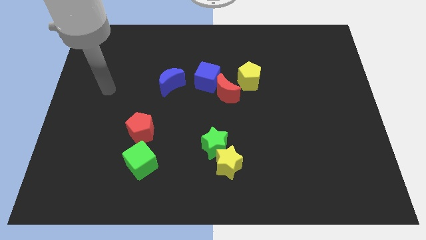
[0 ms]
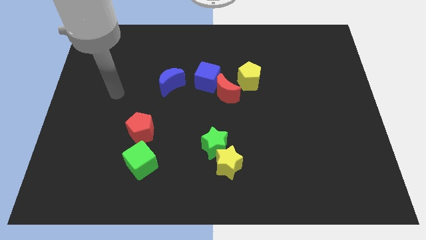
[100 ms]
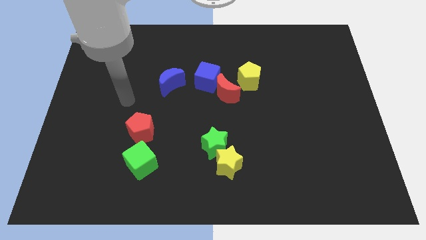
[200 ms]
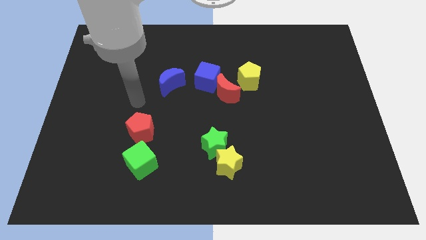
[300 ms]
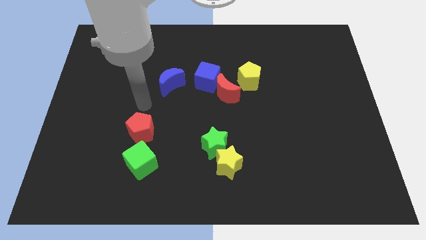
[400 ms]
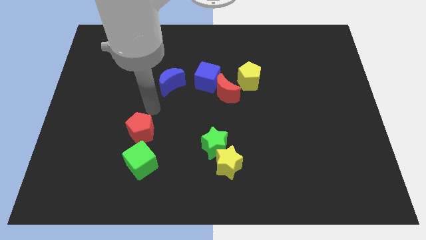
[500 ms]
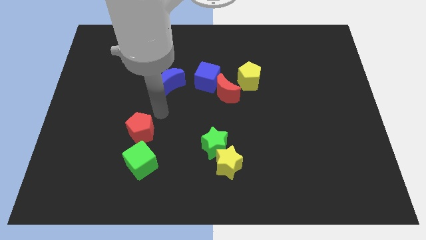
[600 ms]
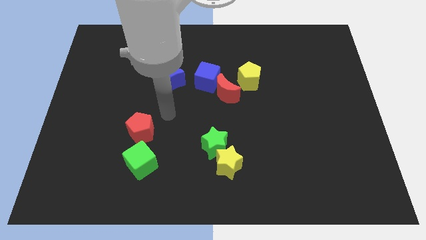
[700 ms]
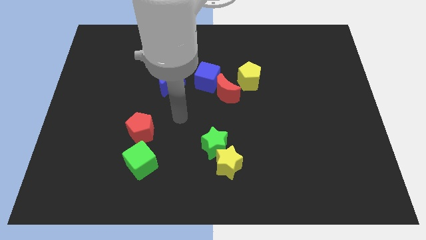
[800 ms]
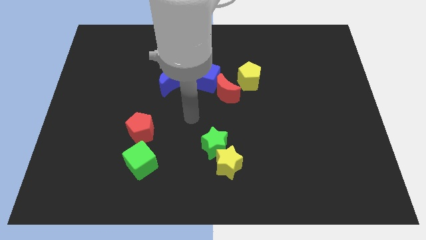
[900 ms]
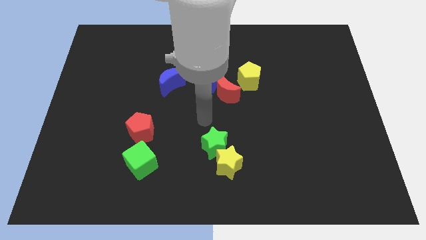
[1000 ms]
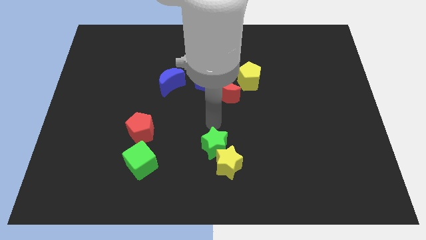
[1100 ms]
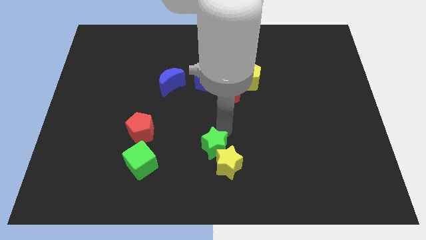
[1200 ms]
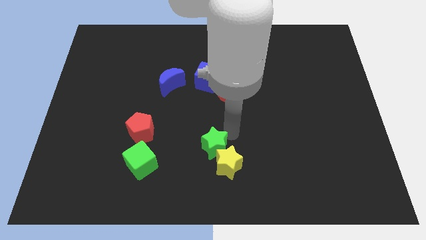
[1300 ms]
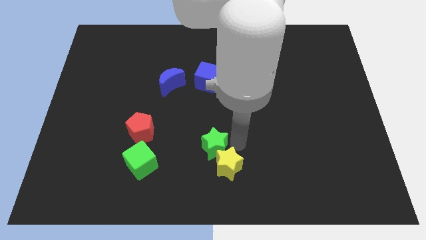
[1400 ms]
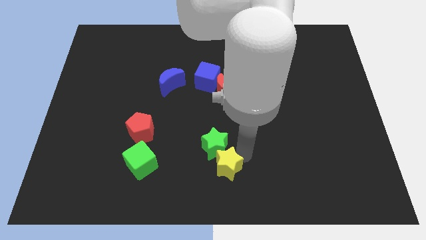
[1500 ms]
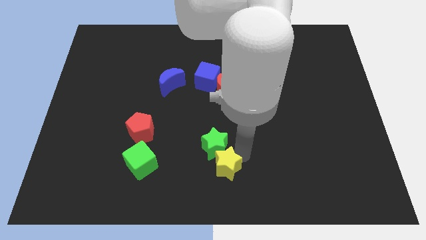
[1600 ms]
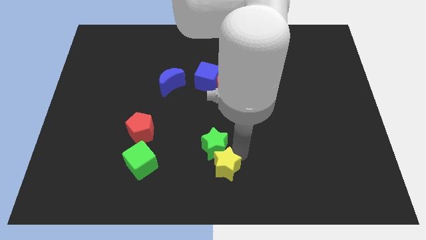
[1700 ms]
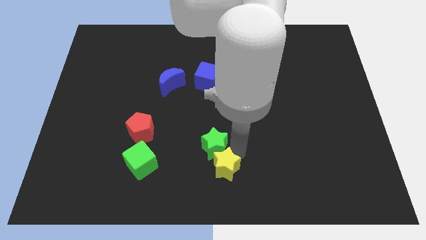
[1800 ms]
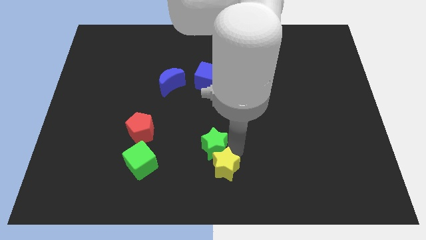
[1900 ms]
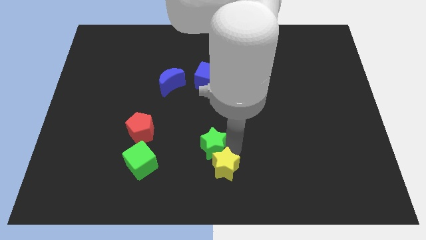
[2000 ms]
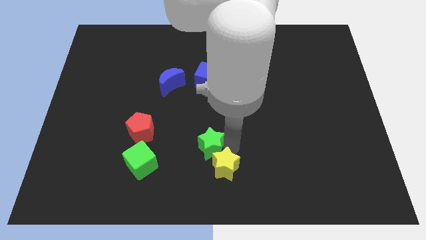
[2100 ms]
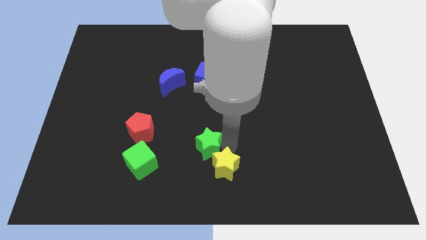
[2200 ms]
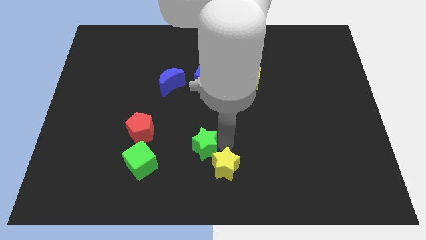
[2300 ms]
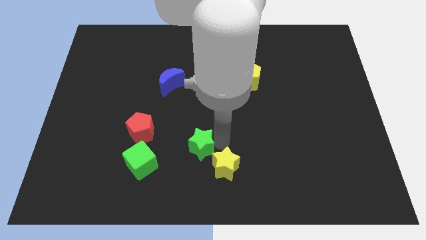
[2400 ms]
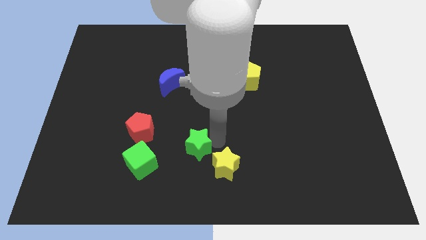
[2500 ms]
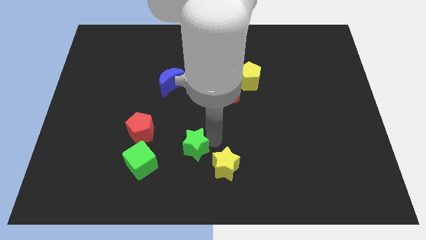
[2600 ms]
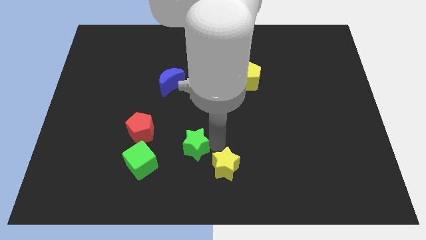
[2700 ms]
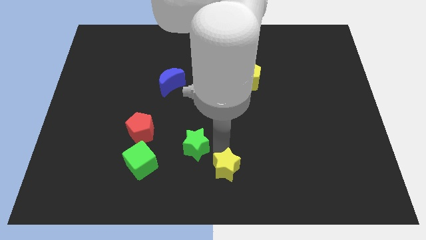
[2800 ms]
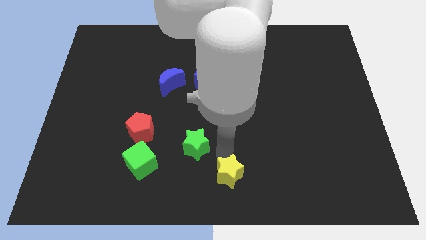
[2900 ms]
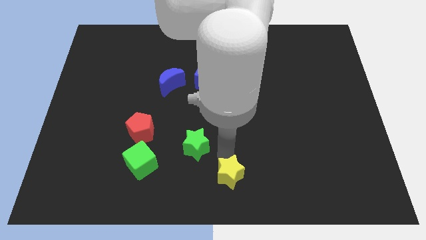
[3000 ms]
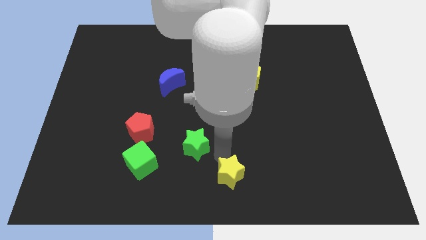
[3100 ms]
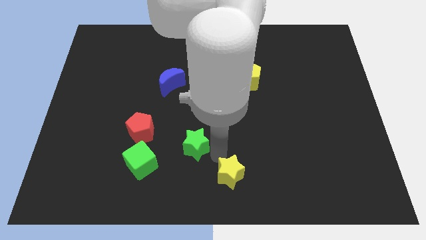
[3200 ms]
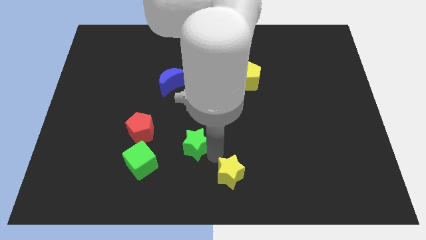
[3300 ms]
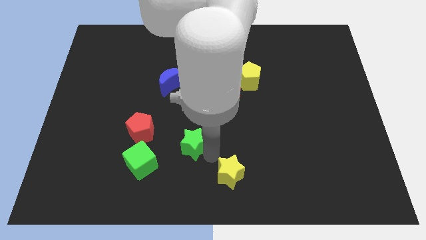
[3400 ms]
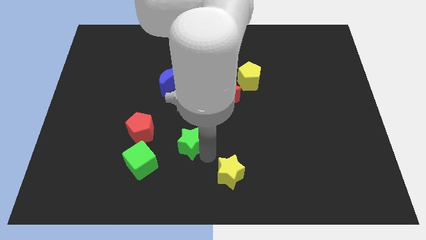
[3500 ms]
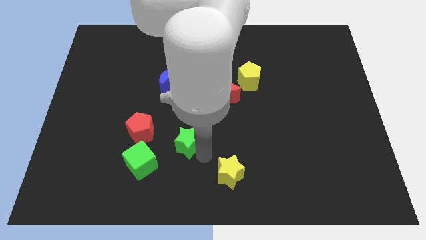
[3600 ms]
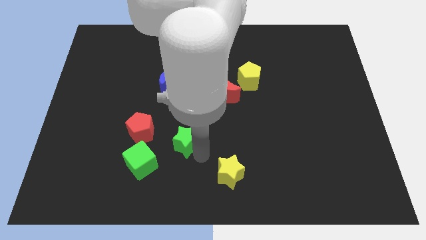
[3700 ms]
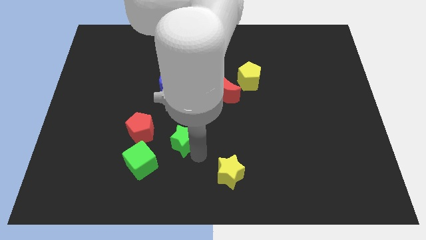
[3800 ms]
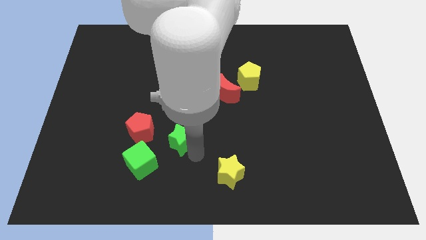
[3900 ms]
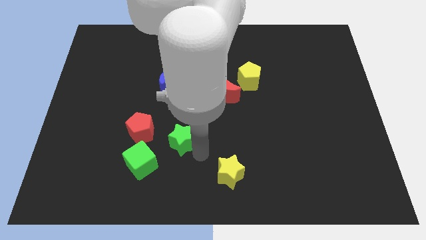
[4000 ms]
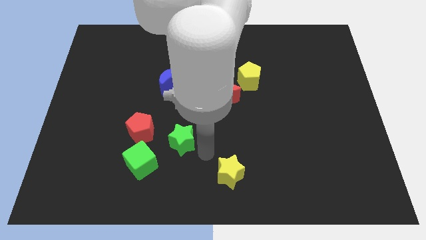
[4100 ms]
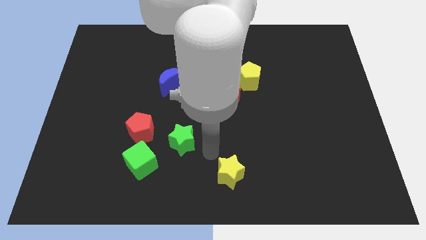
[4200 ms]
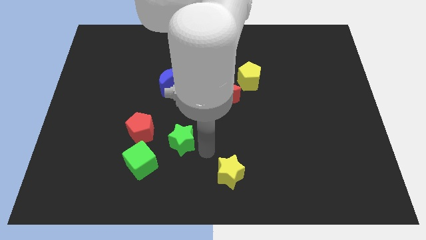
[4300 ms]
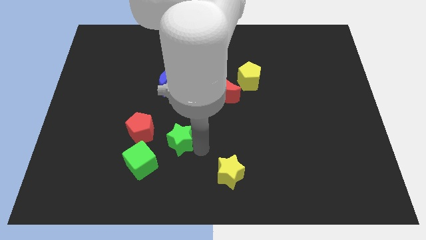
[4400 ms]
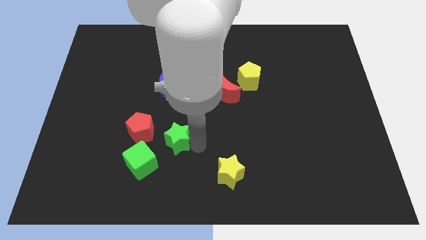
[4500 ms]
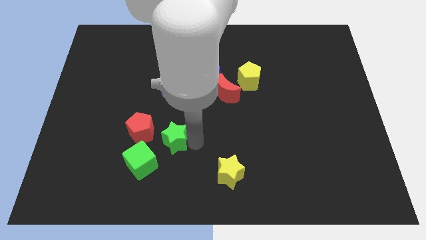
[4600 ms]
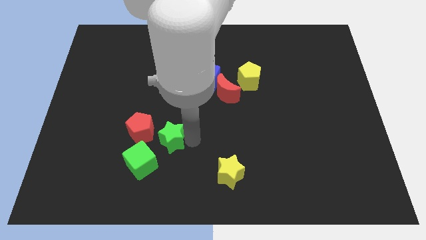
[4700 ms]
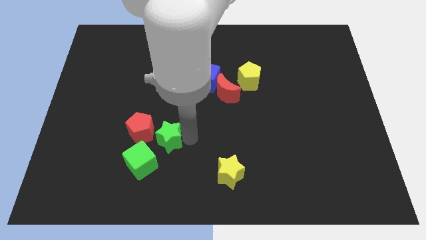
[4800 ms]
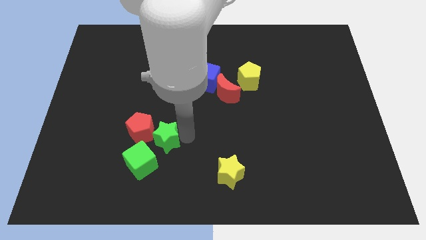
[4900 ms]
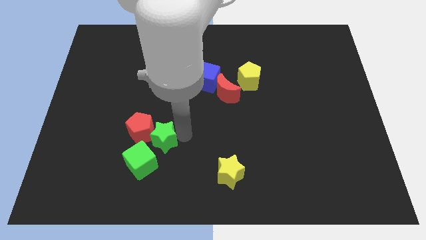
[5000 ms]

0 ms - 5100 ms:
slide the green star towards the red pentagon

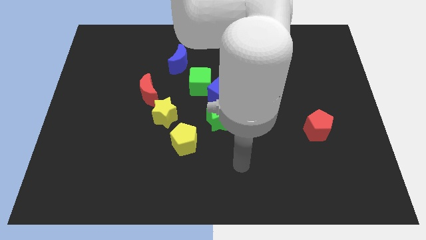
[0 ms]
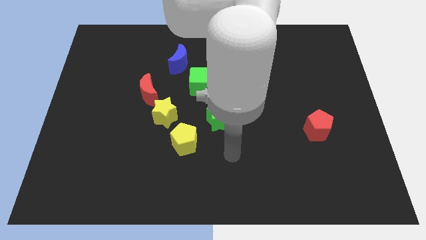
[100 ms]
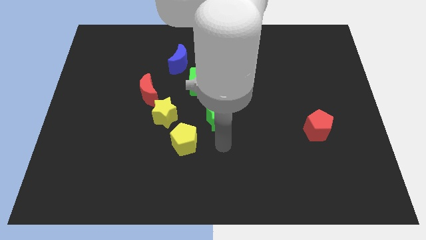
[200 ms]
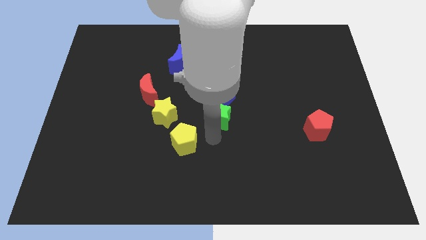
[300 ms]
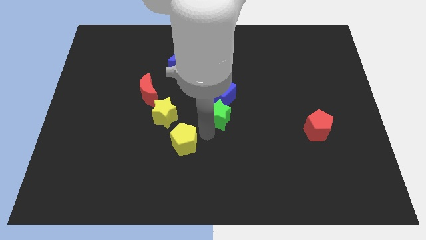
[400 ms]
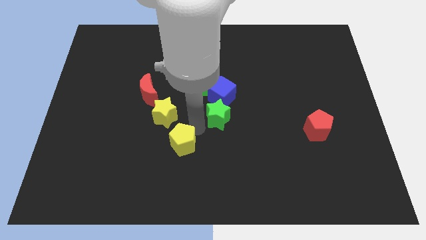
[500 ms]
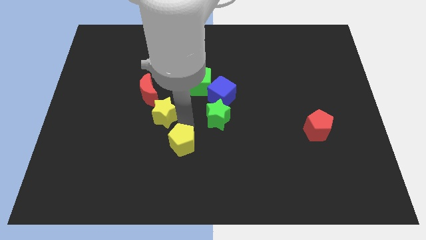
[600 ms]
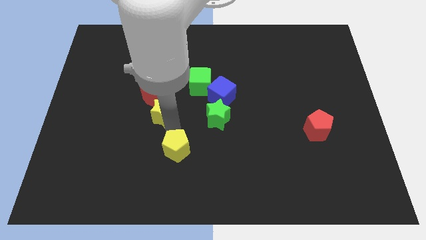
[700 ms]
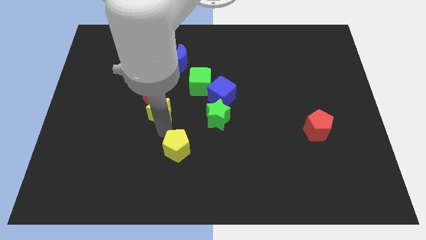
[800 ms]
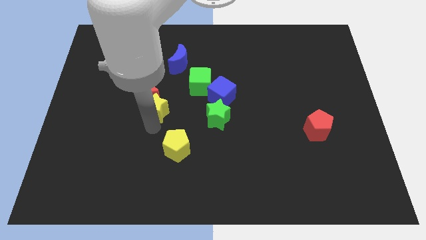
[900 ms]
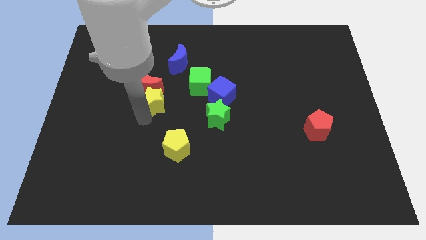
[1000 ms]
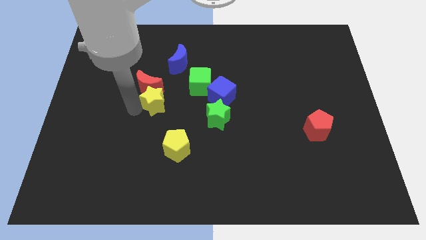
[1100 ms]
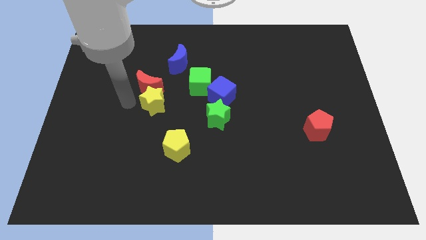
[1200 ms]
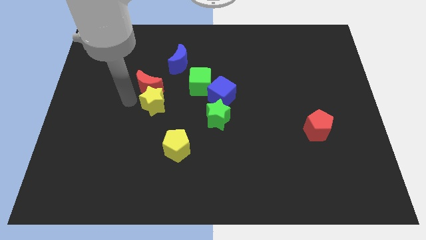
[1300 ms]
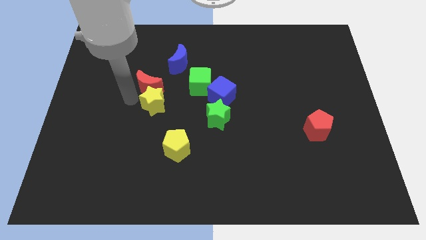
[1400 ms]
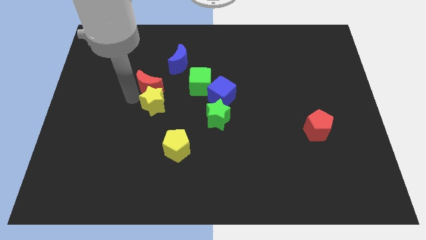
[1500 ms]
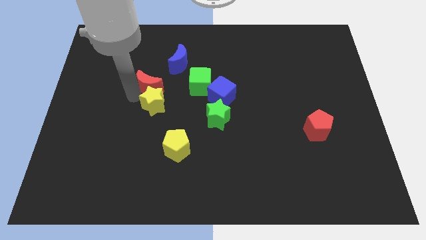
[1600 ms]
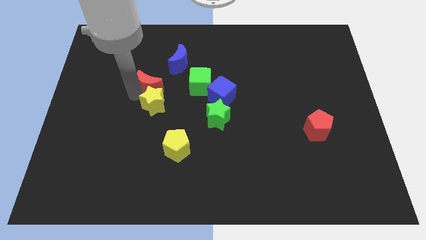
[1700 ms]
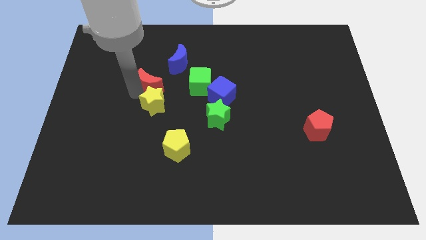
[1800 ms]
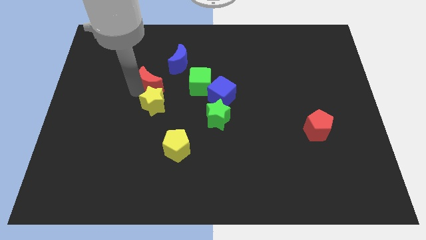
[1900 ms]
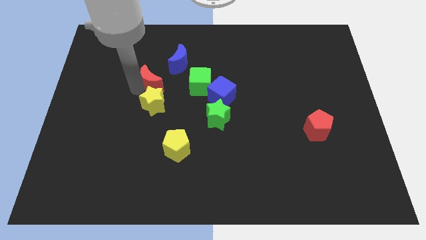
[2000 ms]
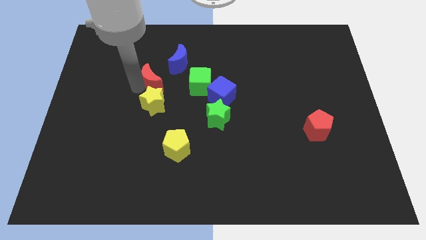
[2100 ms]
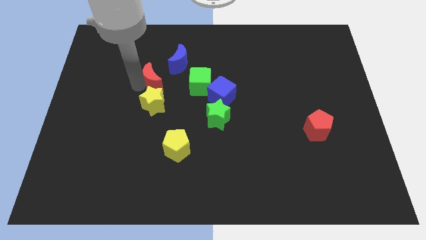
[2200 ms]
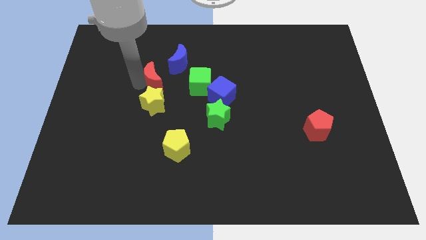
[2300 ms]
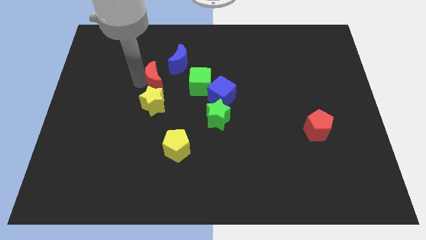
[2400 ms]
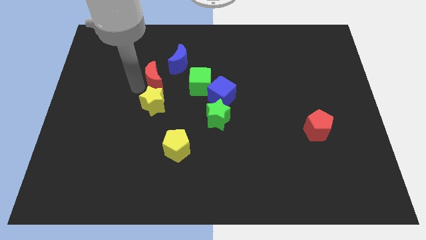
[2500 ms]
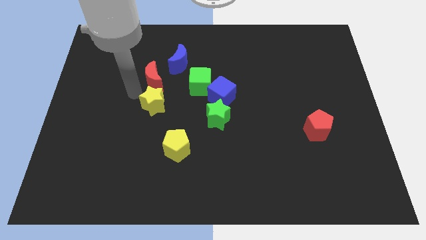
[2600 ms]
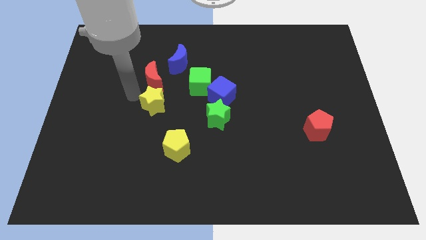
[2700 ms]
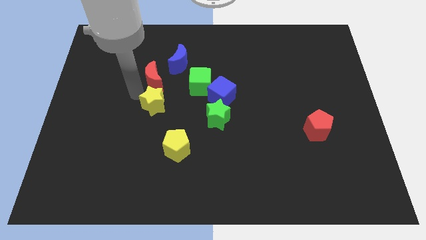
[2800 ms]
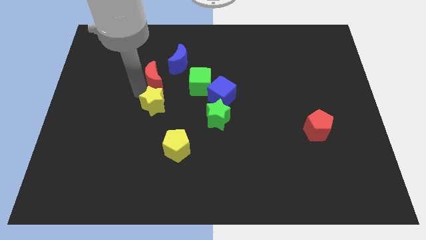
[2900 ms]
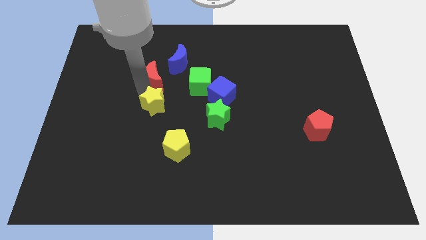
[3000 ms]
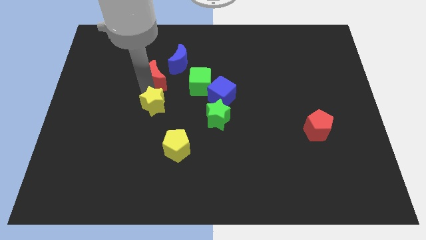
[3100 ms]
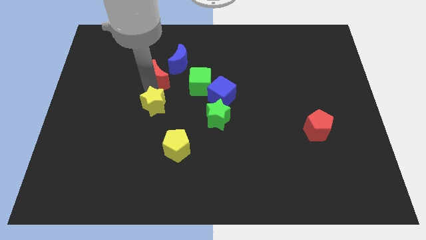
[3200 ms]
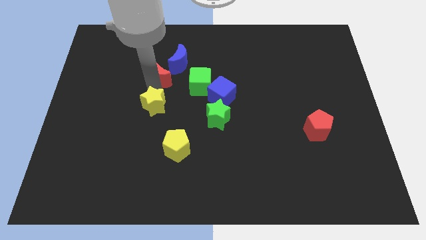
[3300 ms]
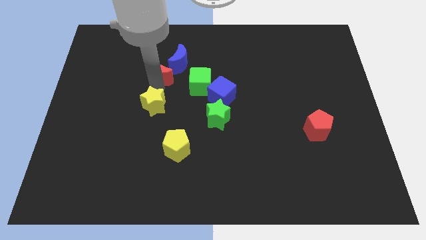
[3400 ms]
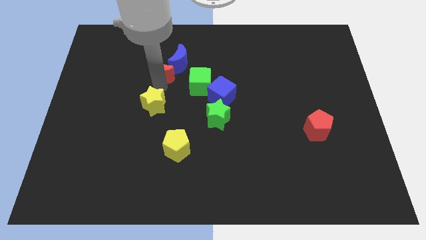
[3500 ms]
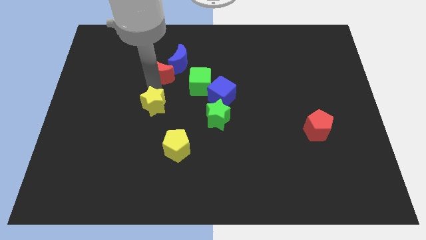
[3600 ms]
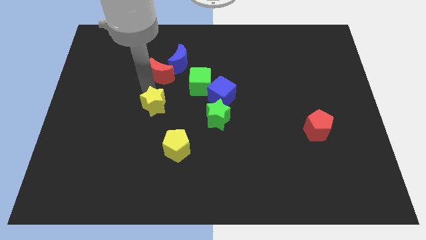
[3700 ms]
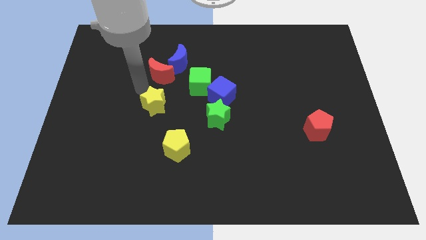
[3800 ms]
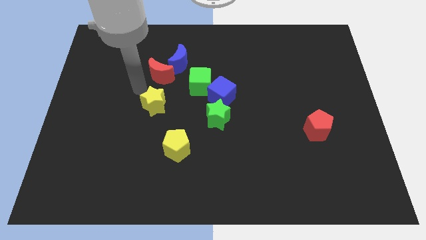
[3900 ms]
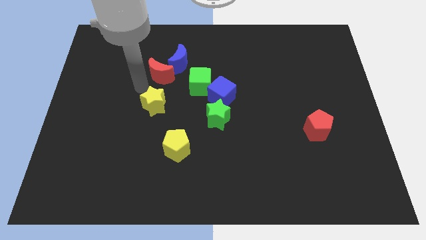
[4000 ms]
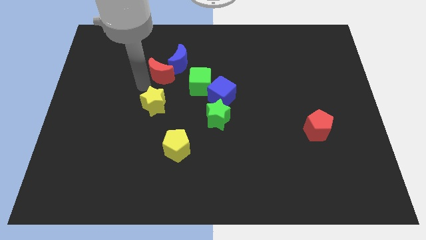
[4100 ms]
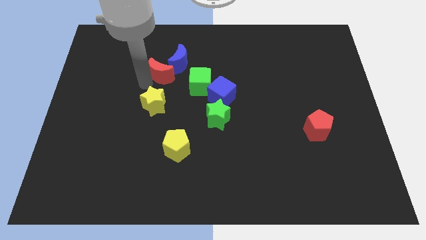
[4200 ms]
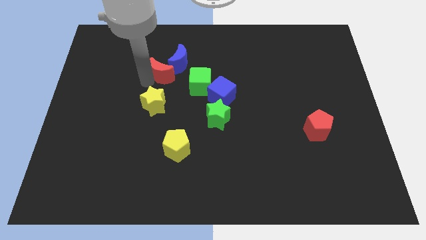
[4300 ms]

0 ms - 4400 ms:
push the red moon to the blue moon
